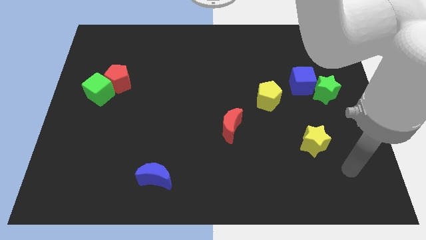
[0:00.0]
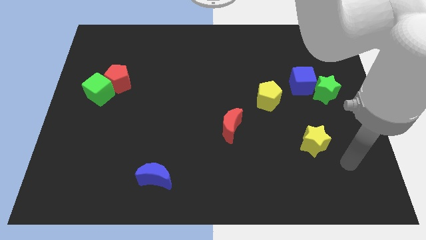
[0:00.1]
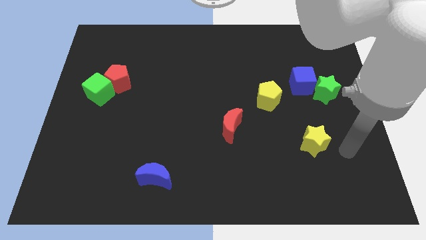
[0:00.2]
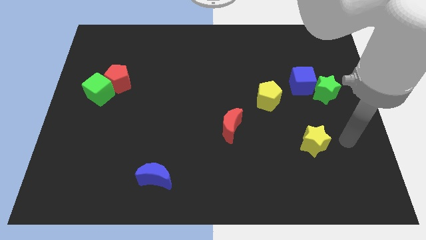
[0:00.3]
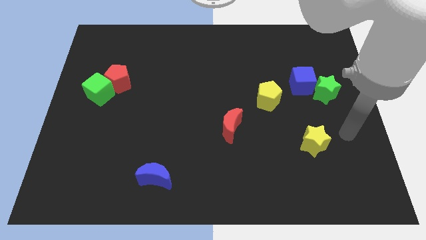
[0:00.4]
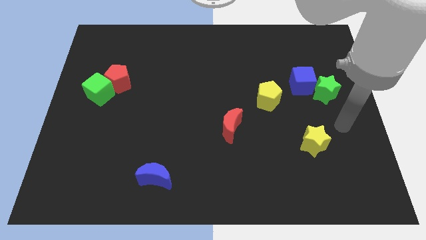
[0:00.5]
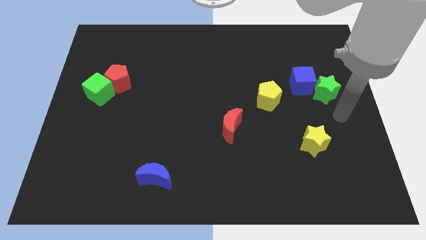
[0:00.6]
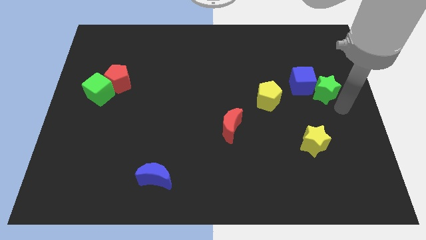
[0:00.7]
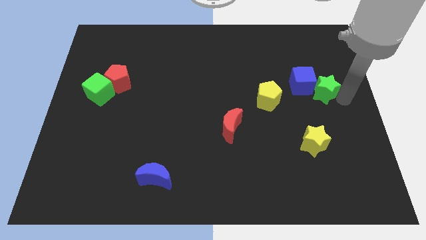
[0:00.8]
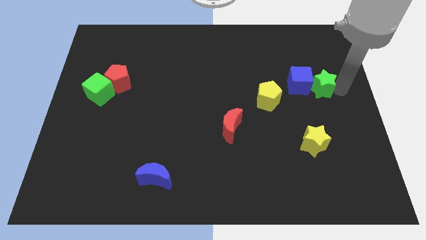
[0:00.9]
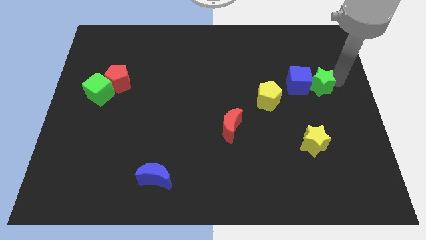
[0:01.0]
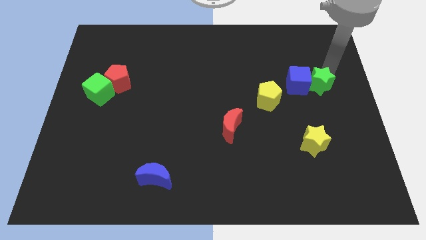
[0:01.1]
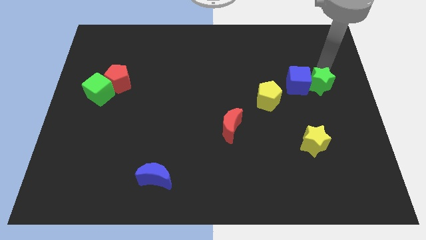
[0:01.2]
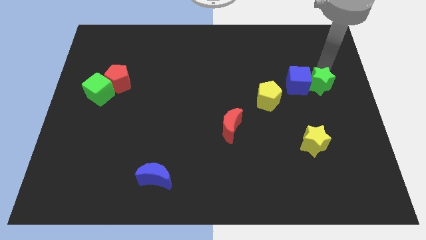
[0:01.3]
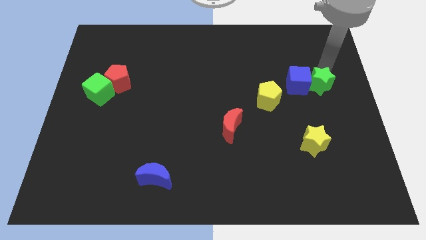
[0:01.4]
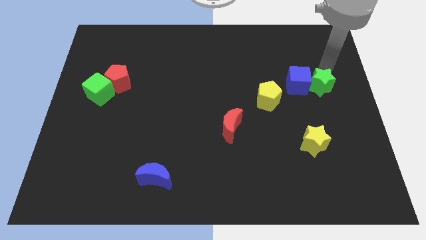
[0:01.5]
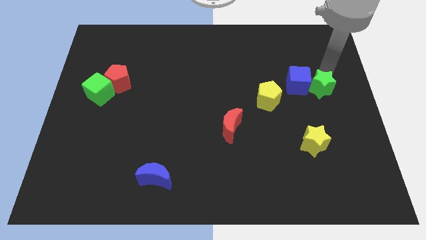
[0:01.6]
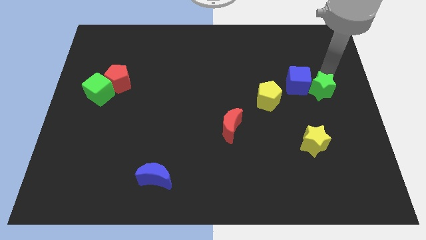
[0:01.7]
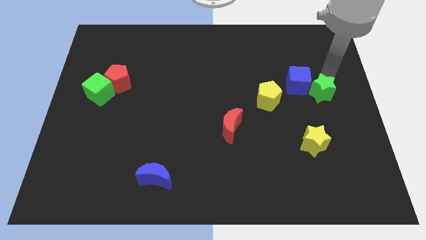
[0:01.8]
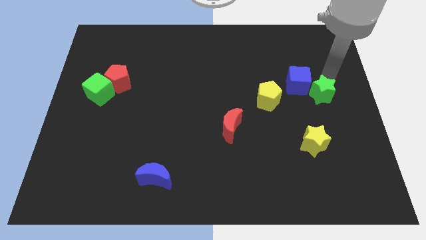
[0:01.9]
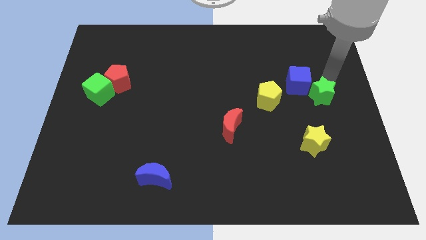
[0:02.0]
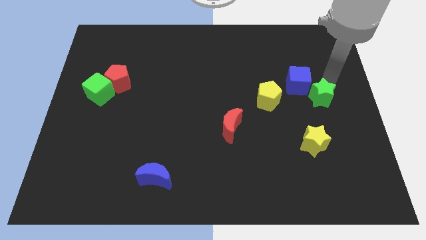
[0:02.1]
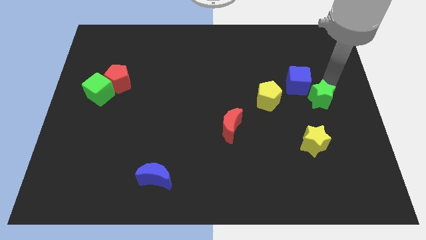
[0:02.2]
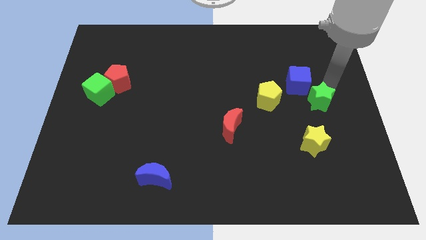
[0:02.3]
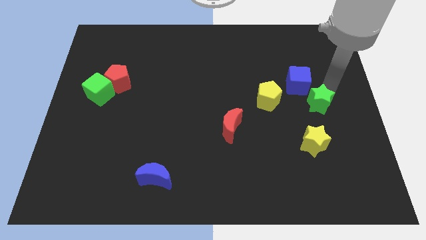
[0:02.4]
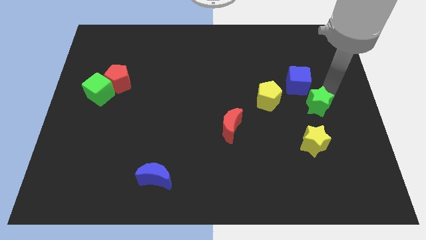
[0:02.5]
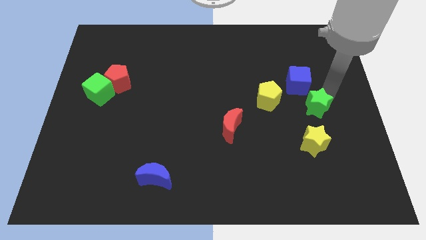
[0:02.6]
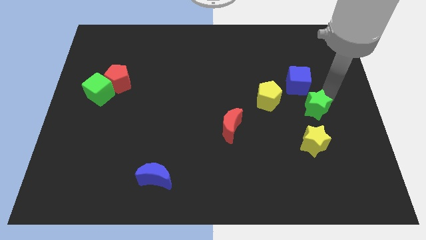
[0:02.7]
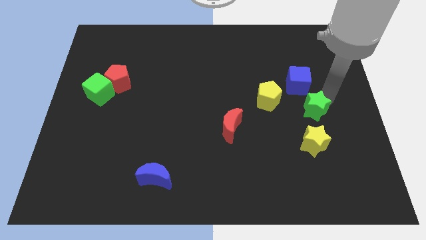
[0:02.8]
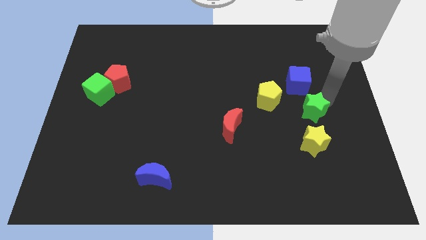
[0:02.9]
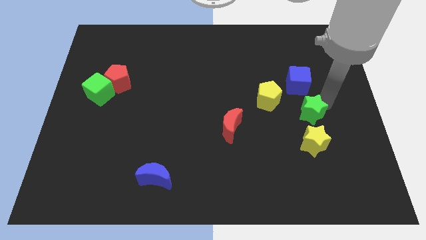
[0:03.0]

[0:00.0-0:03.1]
push the green star downwards and then left slightly

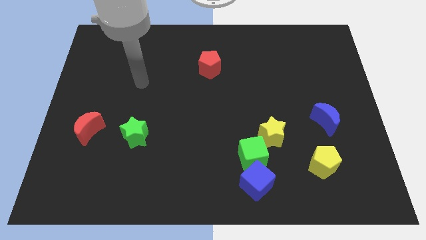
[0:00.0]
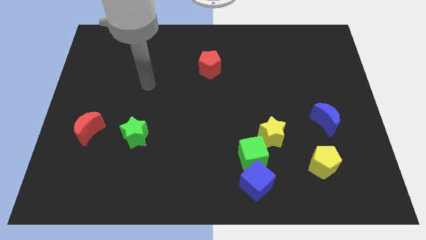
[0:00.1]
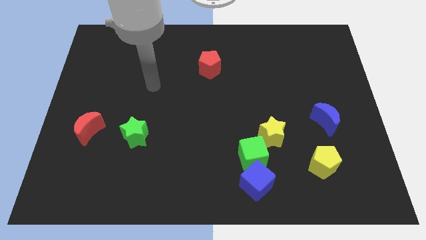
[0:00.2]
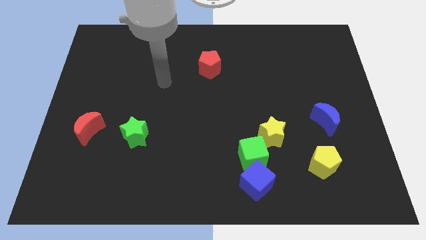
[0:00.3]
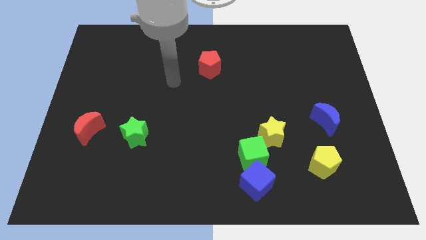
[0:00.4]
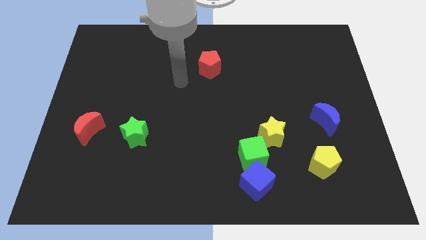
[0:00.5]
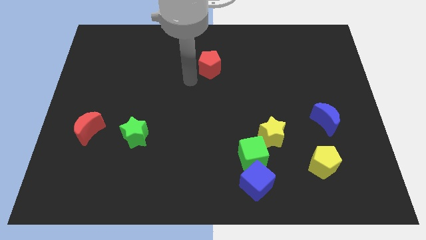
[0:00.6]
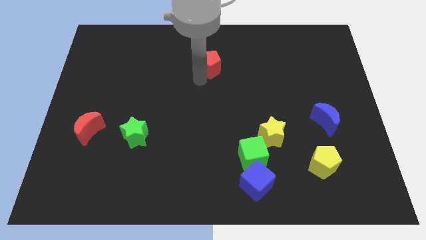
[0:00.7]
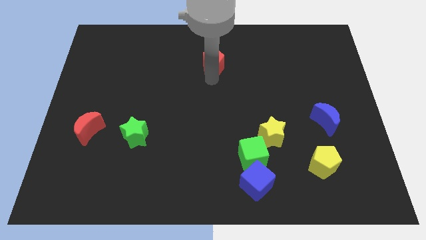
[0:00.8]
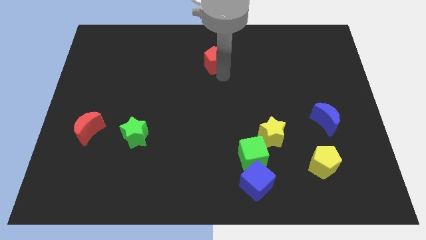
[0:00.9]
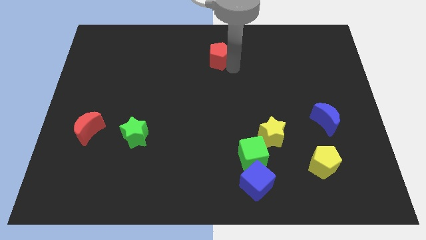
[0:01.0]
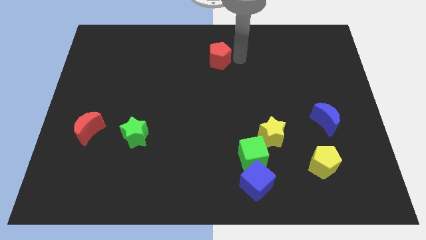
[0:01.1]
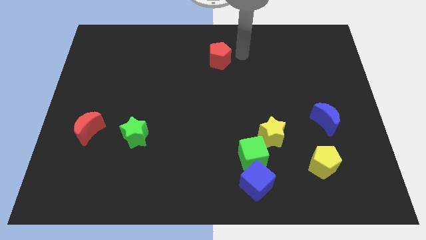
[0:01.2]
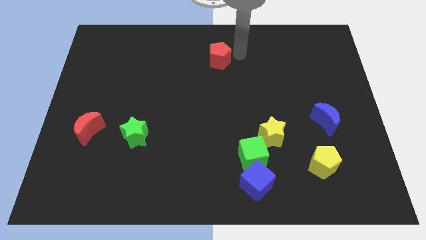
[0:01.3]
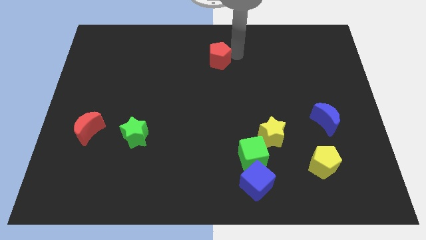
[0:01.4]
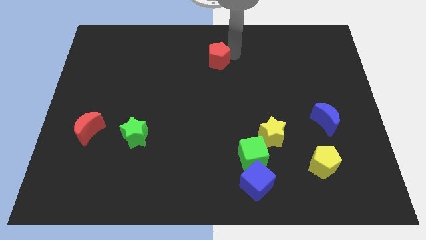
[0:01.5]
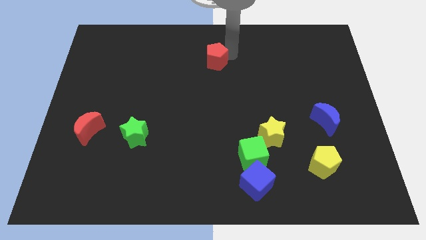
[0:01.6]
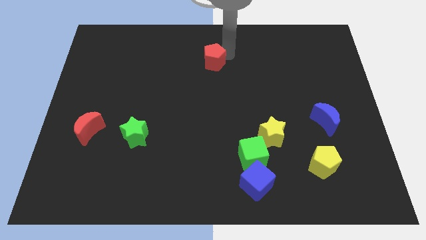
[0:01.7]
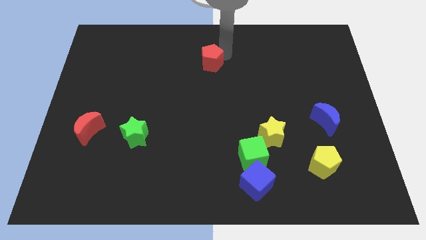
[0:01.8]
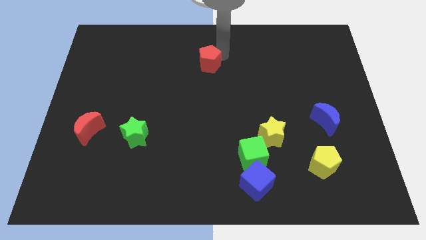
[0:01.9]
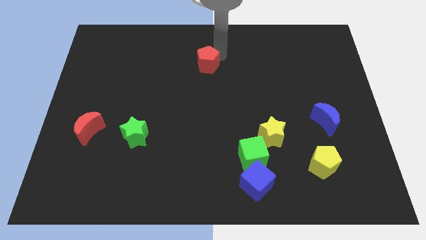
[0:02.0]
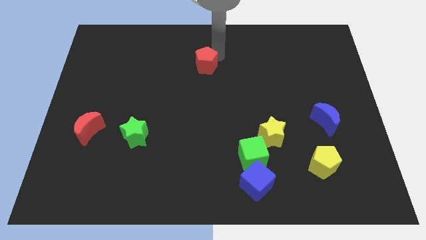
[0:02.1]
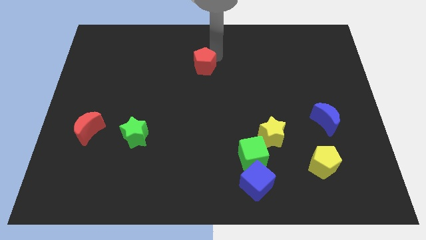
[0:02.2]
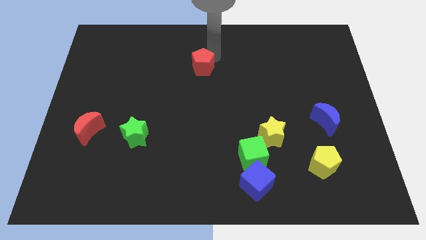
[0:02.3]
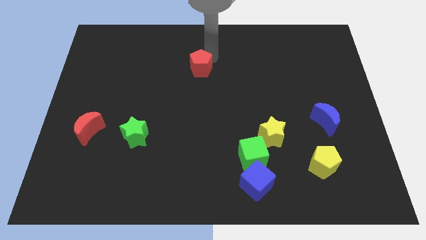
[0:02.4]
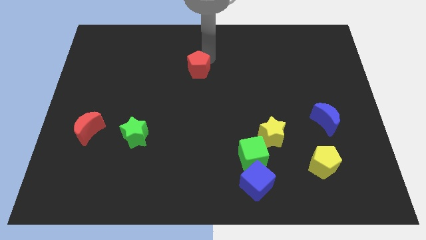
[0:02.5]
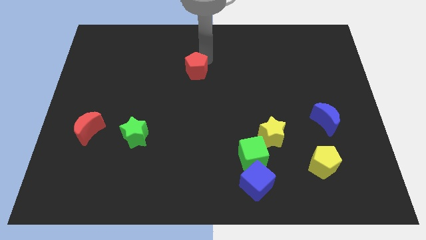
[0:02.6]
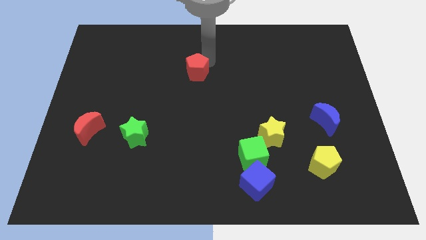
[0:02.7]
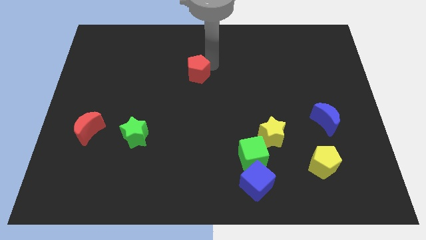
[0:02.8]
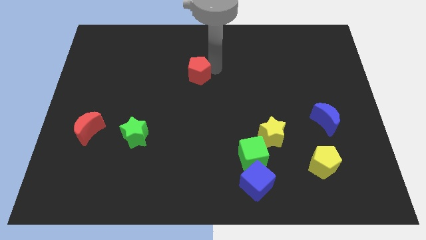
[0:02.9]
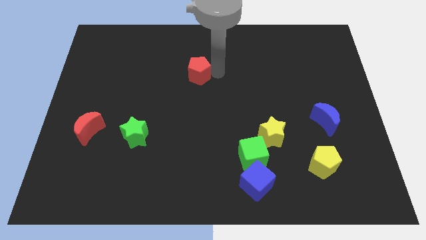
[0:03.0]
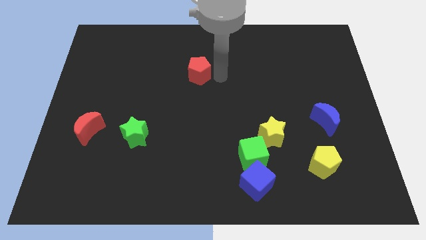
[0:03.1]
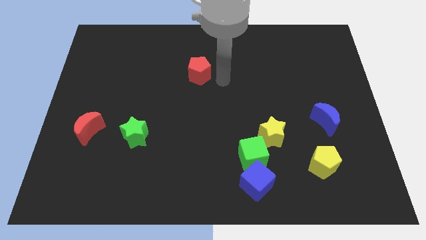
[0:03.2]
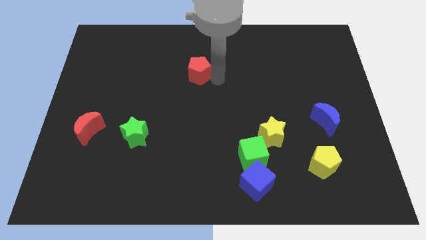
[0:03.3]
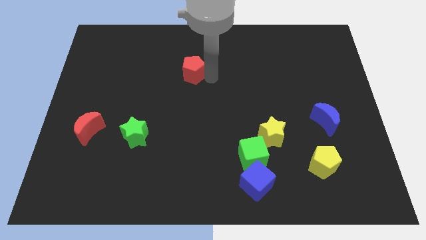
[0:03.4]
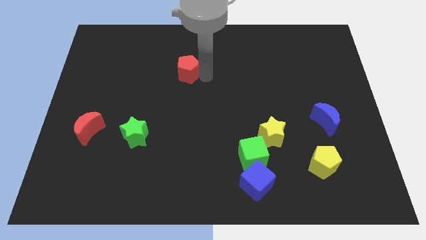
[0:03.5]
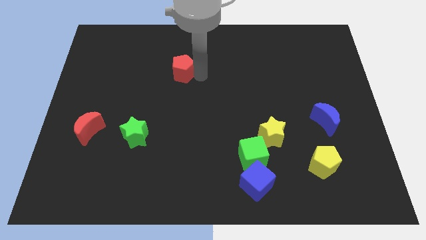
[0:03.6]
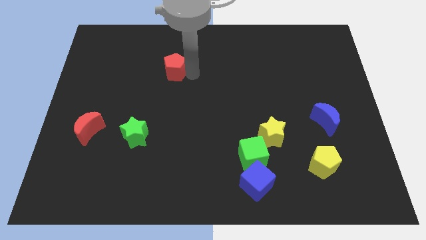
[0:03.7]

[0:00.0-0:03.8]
slightly move the red pentagon left

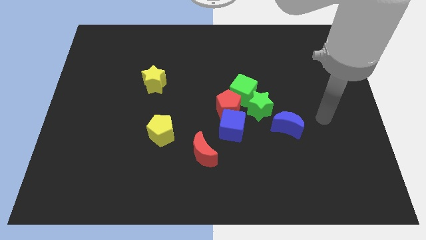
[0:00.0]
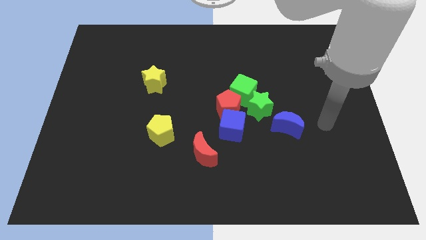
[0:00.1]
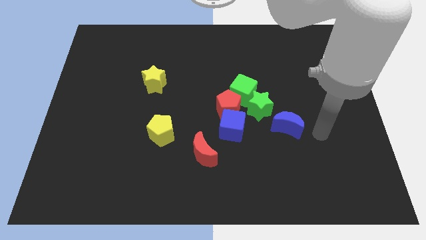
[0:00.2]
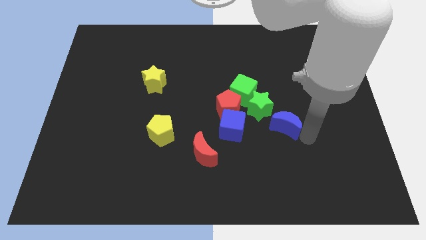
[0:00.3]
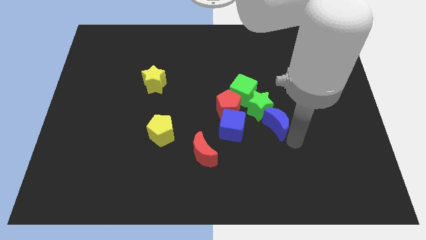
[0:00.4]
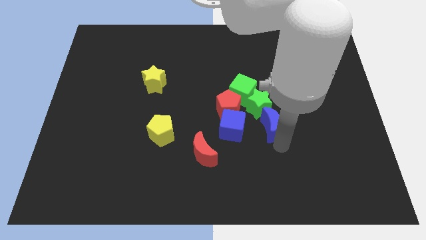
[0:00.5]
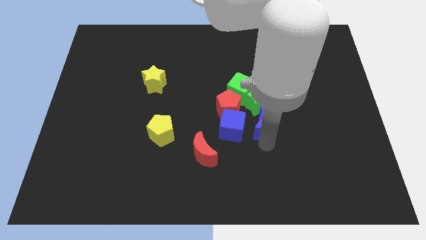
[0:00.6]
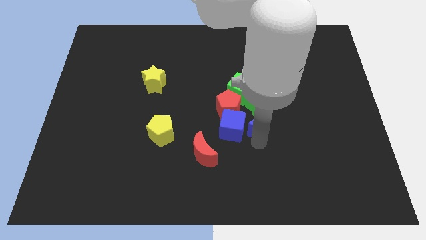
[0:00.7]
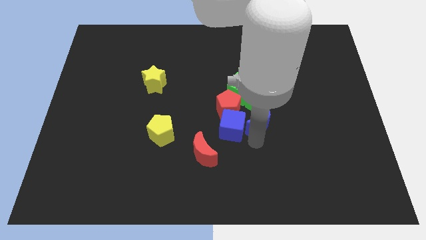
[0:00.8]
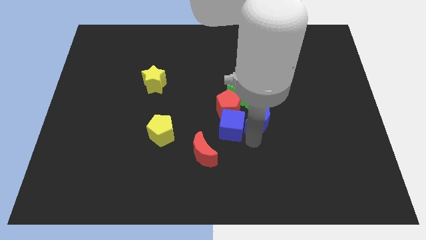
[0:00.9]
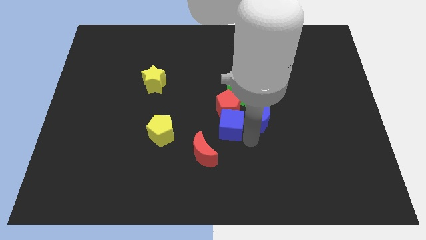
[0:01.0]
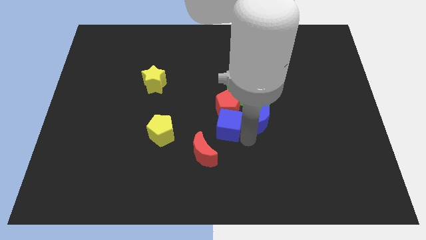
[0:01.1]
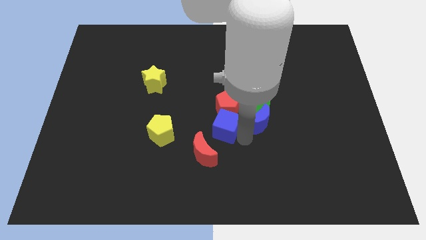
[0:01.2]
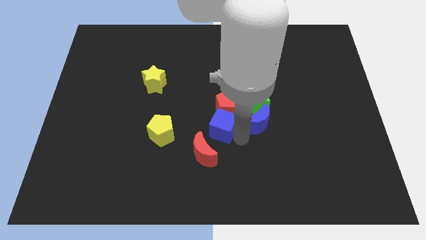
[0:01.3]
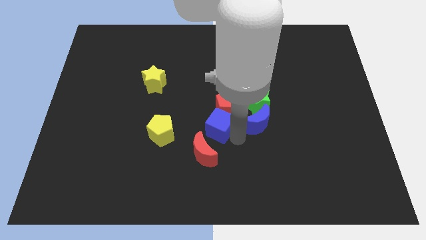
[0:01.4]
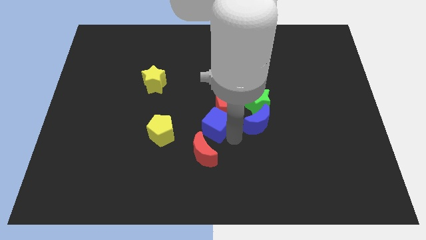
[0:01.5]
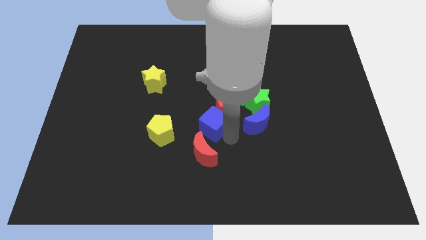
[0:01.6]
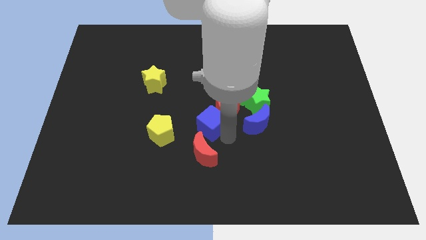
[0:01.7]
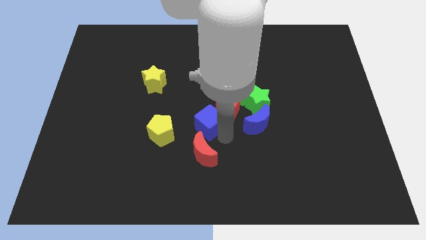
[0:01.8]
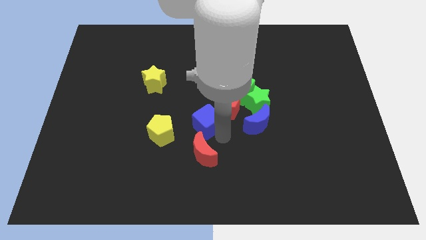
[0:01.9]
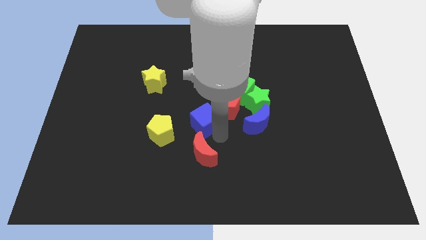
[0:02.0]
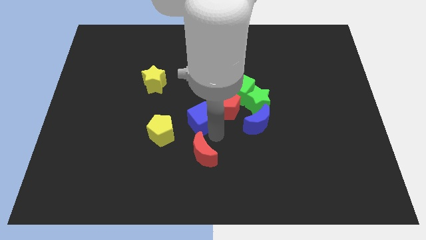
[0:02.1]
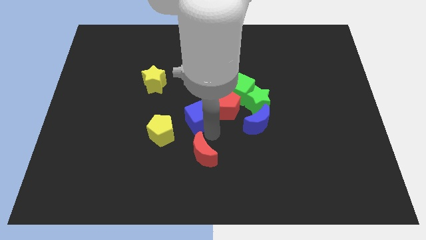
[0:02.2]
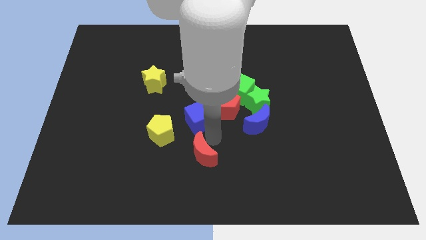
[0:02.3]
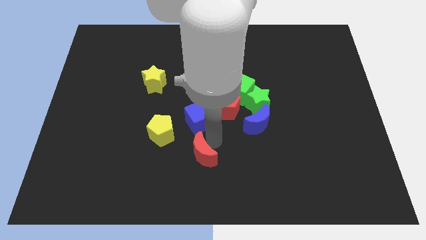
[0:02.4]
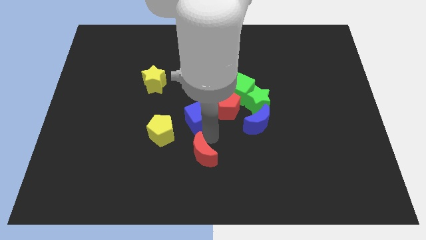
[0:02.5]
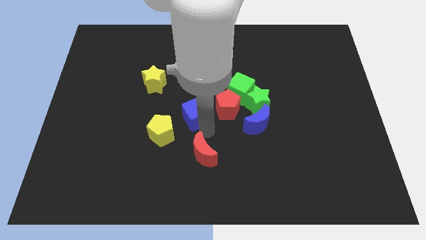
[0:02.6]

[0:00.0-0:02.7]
push the blue cube a bit up and to the left
